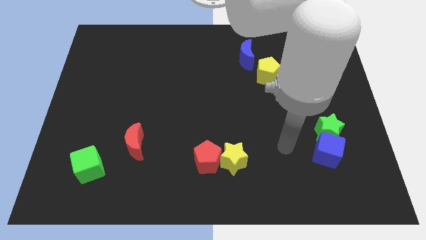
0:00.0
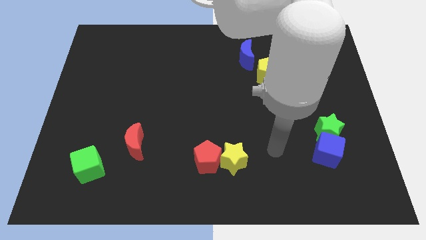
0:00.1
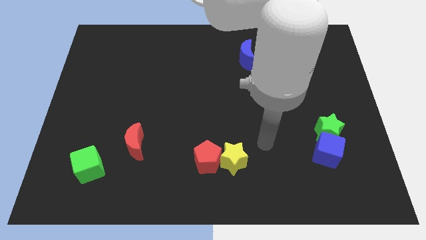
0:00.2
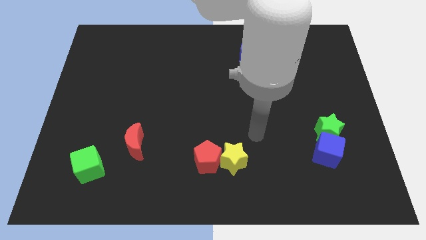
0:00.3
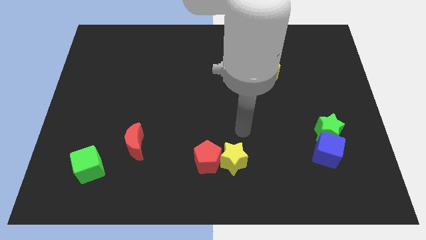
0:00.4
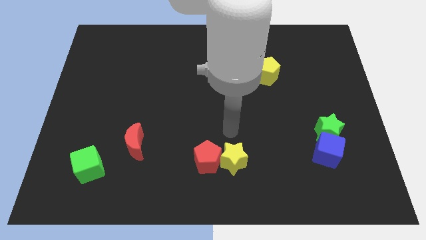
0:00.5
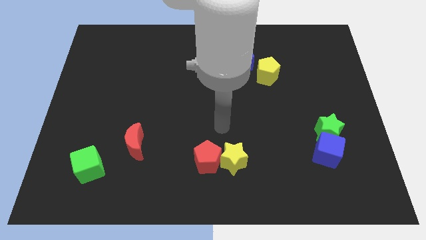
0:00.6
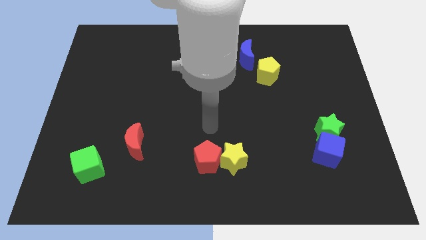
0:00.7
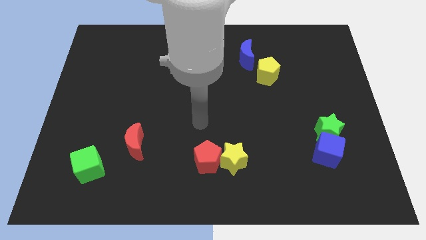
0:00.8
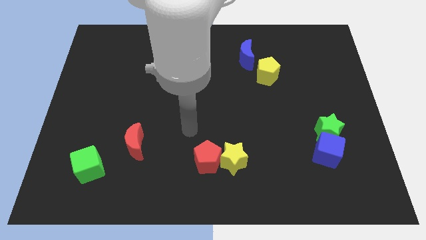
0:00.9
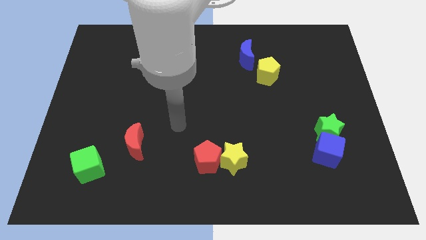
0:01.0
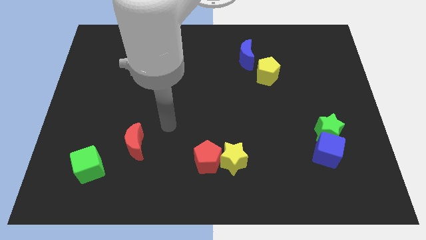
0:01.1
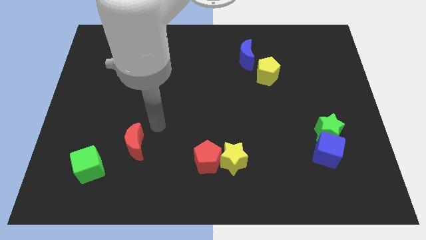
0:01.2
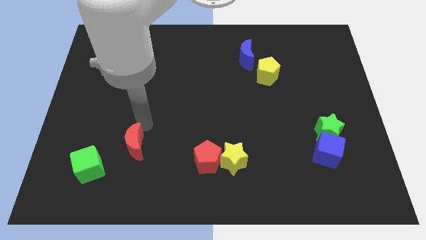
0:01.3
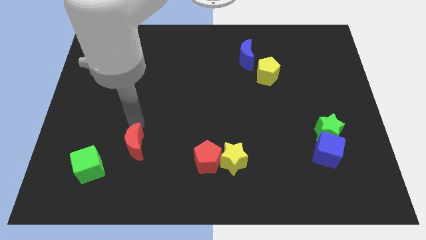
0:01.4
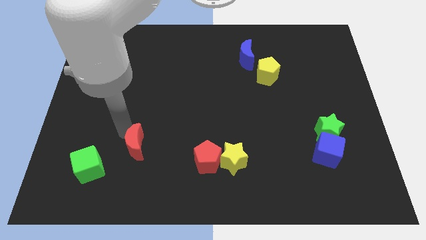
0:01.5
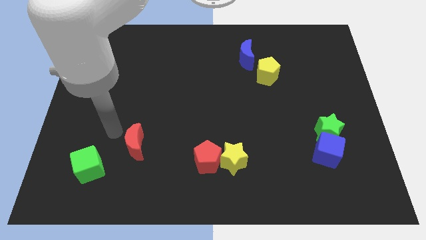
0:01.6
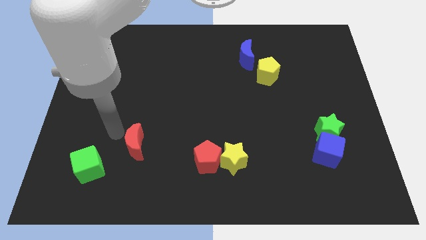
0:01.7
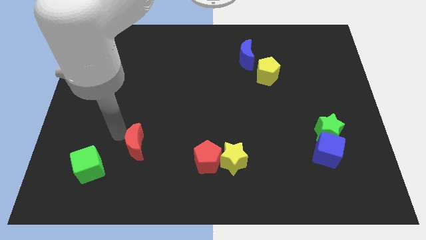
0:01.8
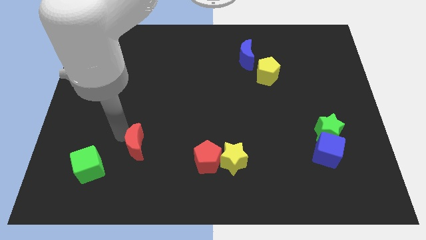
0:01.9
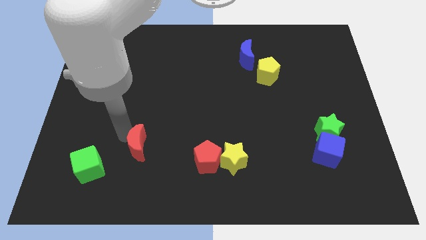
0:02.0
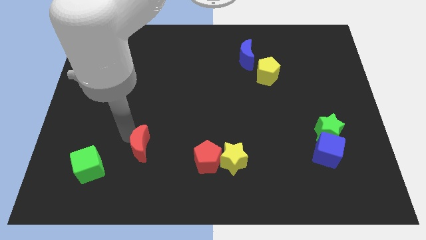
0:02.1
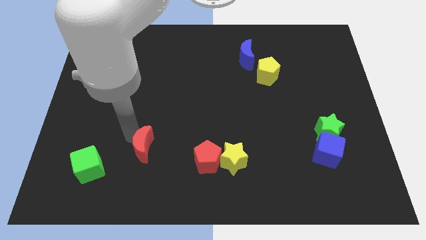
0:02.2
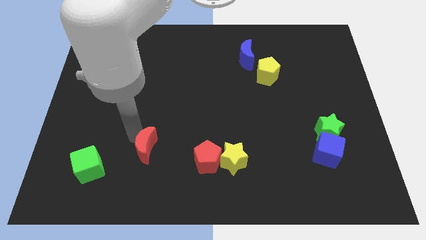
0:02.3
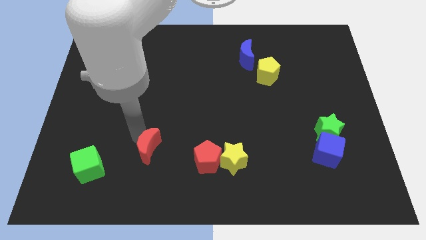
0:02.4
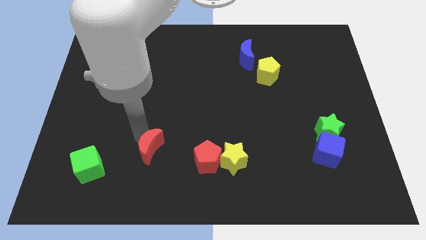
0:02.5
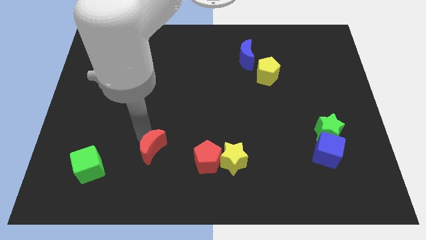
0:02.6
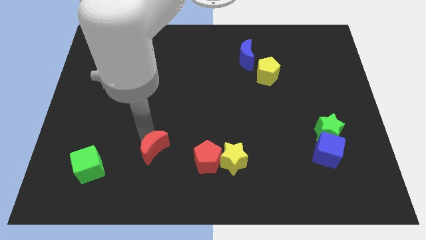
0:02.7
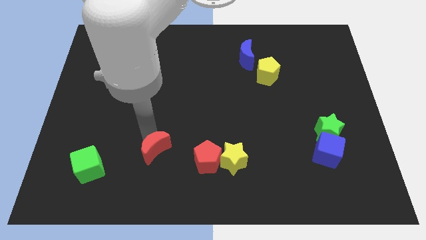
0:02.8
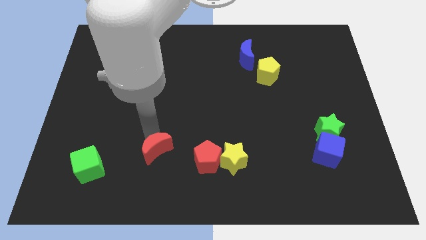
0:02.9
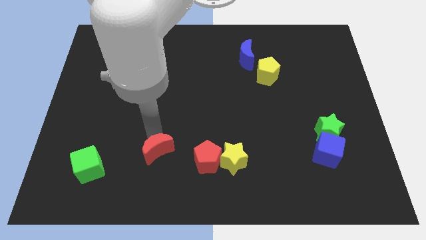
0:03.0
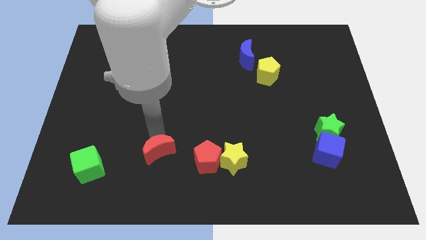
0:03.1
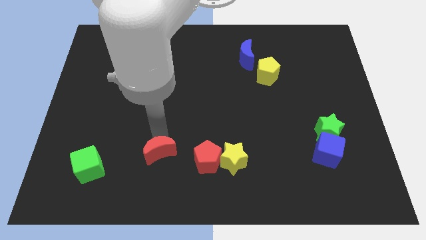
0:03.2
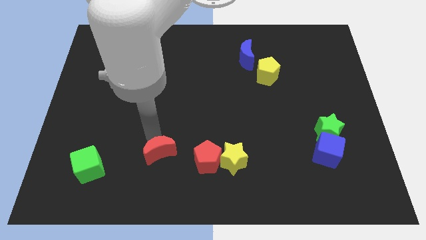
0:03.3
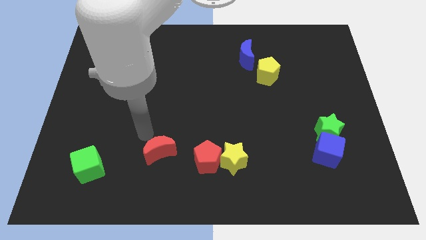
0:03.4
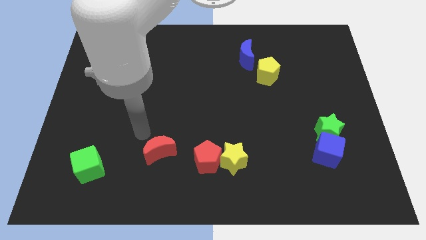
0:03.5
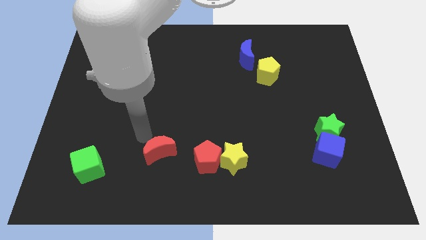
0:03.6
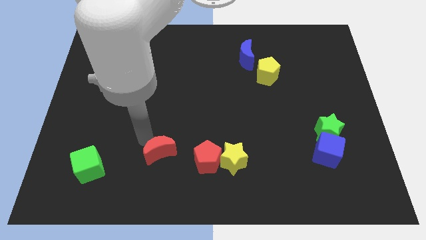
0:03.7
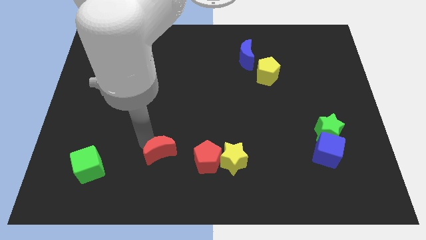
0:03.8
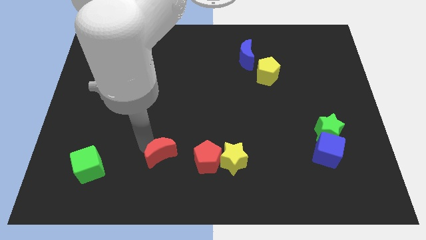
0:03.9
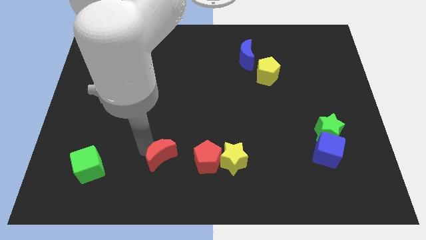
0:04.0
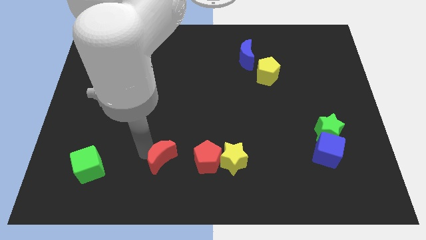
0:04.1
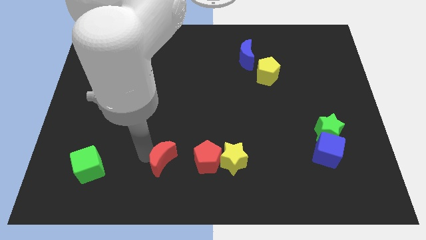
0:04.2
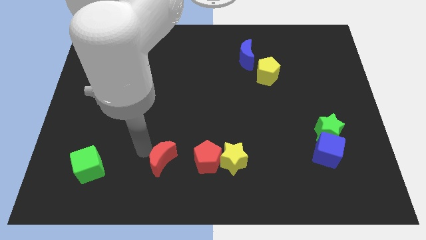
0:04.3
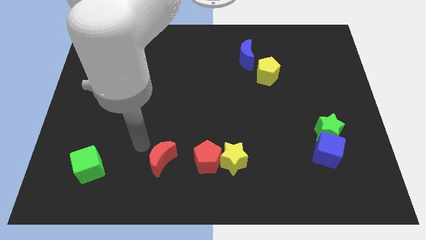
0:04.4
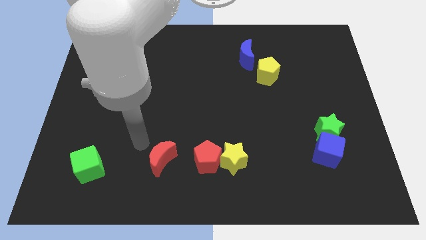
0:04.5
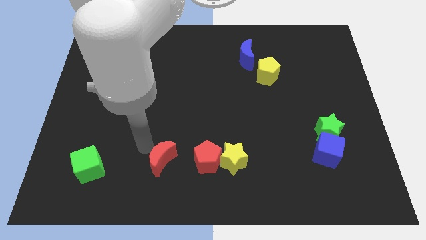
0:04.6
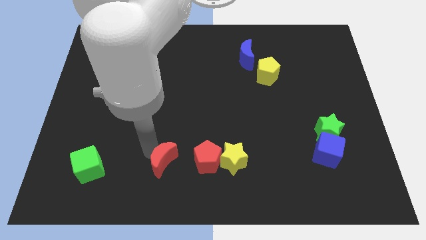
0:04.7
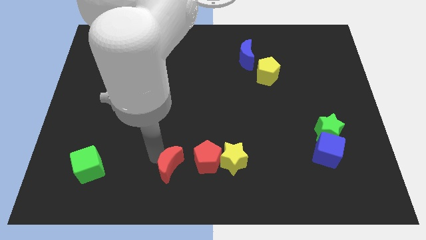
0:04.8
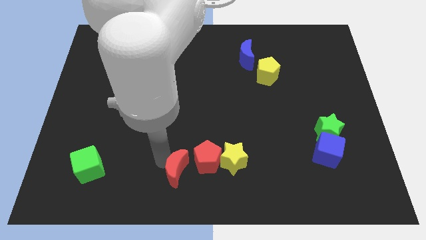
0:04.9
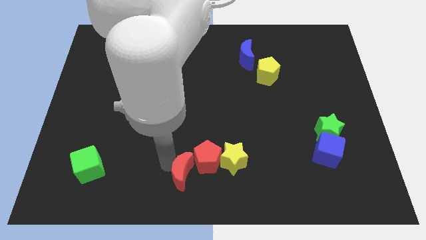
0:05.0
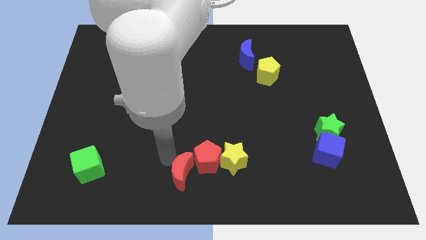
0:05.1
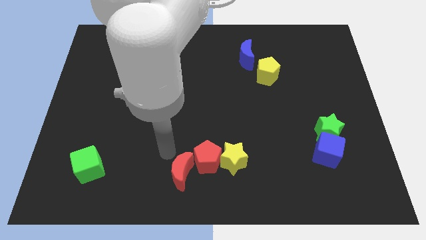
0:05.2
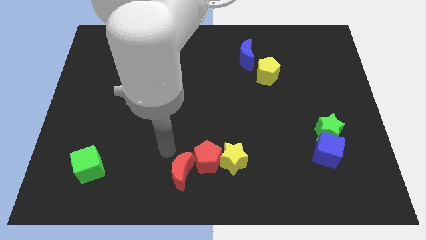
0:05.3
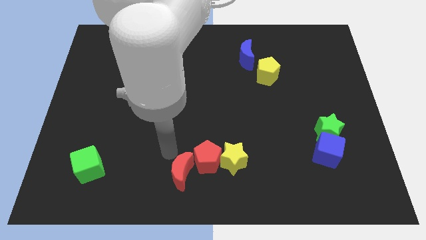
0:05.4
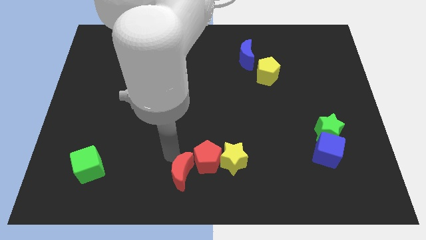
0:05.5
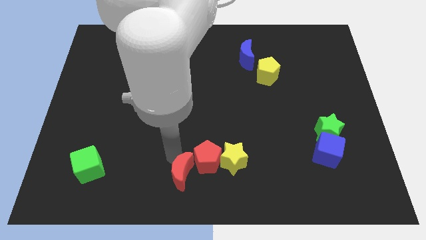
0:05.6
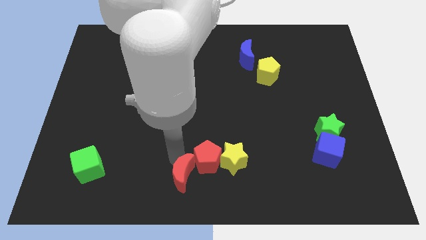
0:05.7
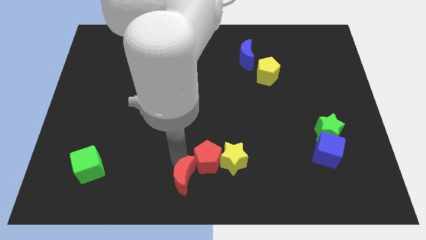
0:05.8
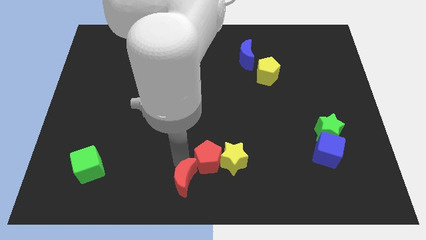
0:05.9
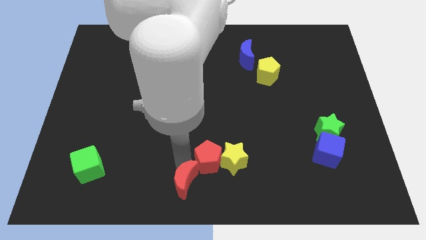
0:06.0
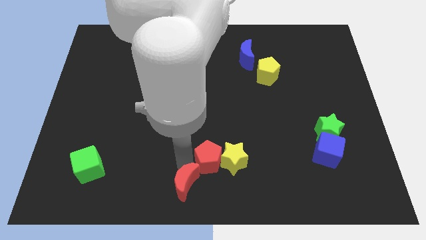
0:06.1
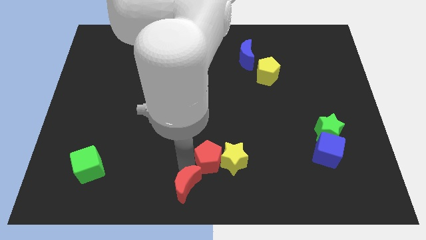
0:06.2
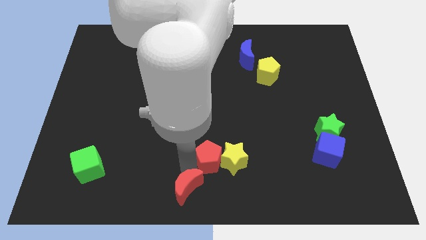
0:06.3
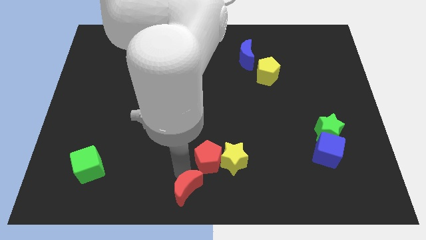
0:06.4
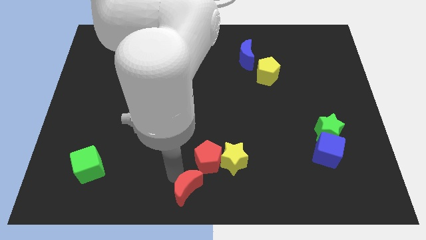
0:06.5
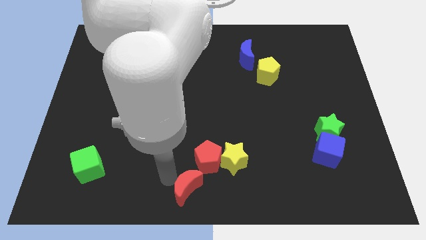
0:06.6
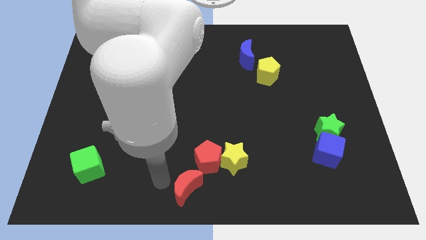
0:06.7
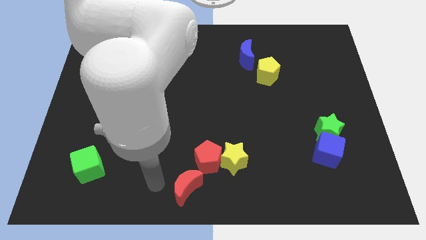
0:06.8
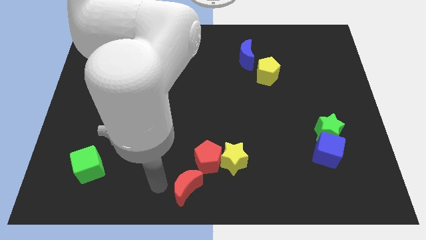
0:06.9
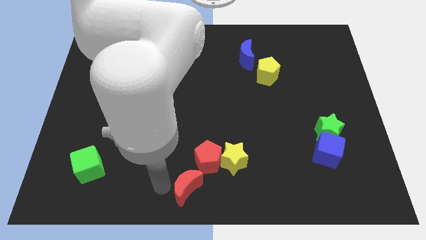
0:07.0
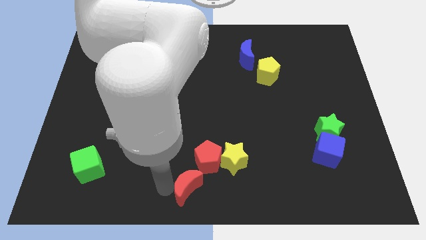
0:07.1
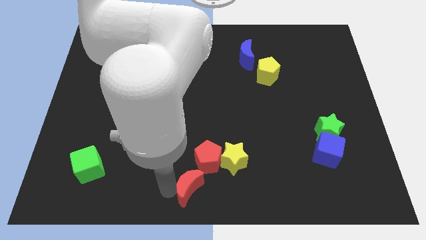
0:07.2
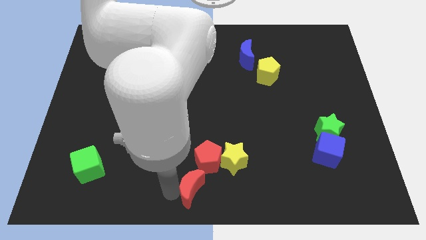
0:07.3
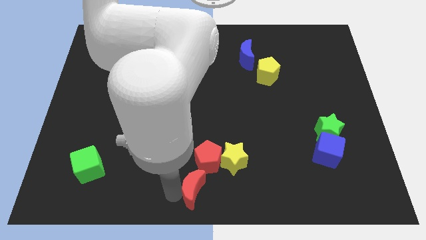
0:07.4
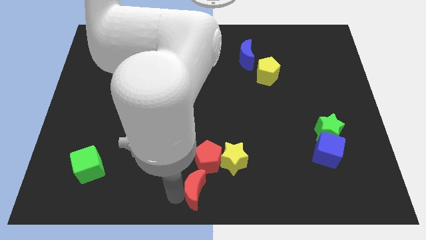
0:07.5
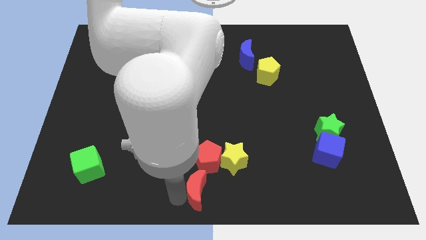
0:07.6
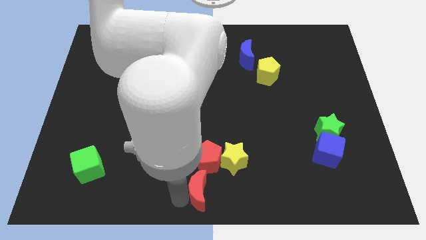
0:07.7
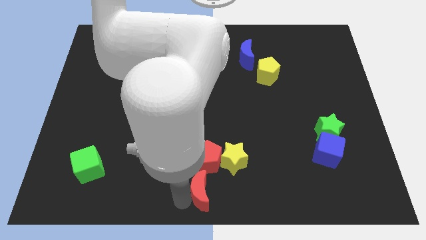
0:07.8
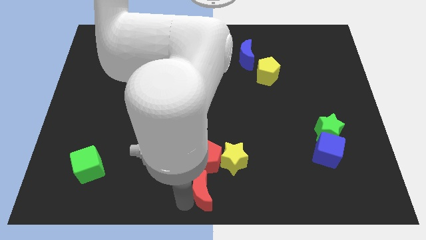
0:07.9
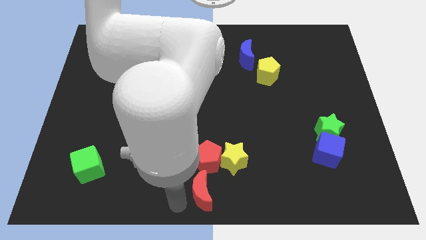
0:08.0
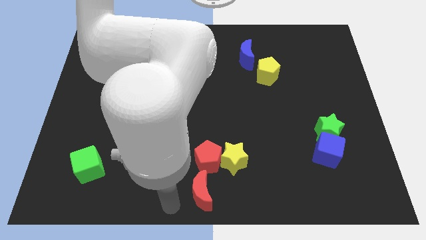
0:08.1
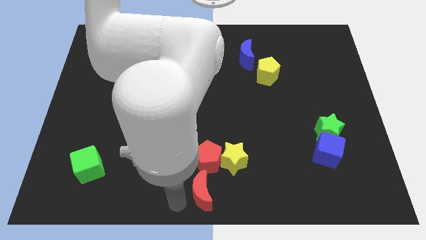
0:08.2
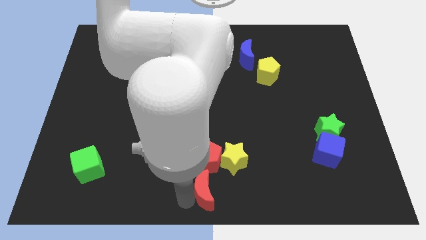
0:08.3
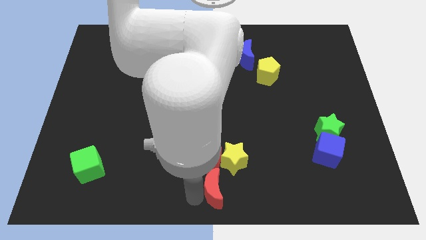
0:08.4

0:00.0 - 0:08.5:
move the red moon diagonally down and to the right of the red pentagon
